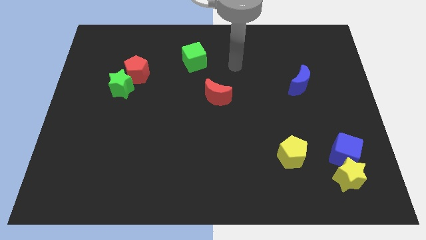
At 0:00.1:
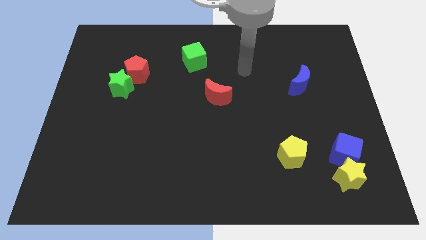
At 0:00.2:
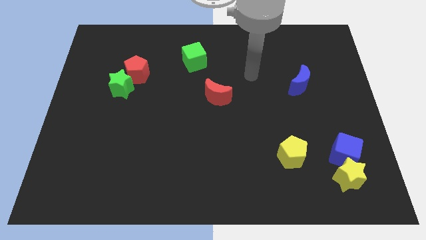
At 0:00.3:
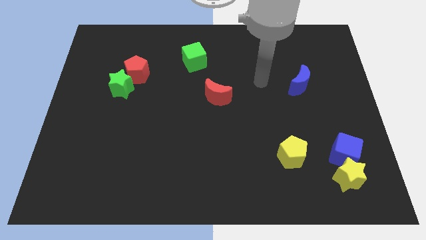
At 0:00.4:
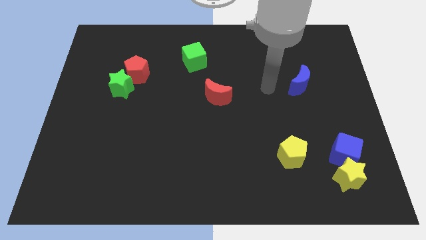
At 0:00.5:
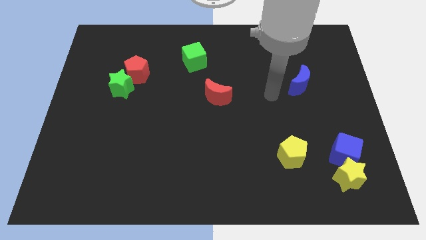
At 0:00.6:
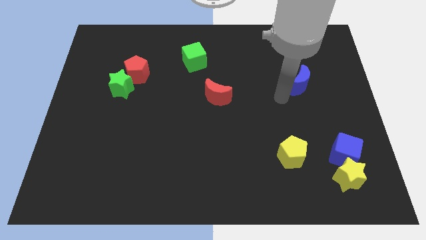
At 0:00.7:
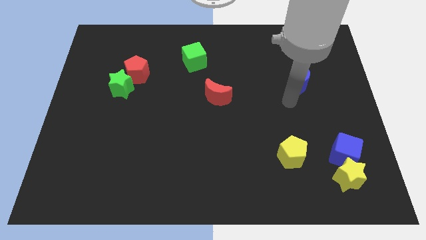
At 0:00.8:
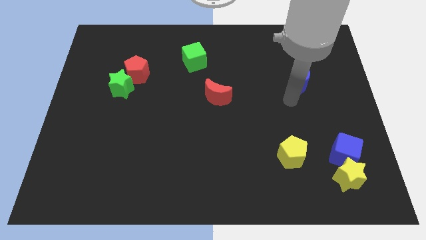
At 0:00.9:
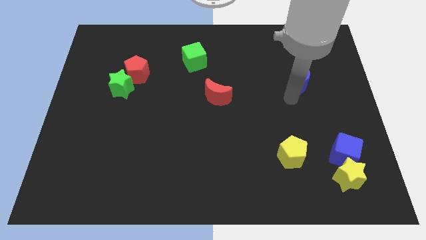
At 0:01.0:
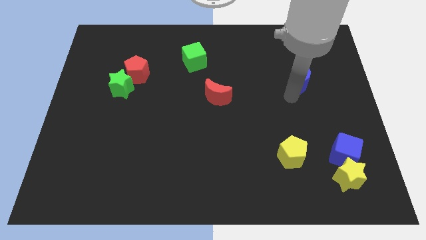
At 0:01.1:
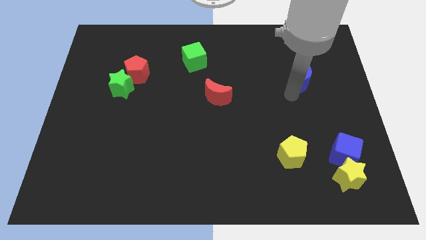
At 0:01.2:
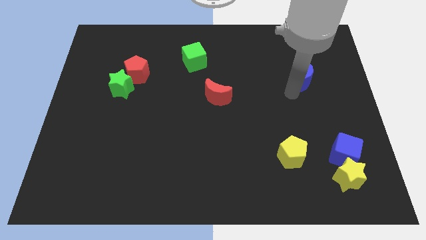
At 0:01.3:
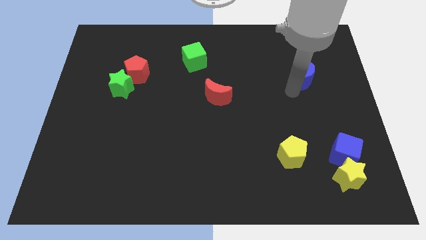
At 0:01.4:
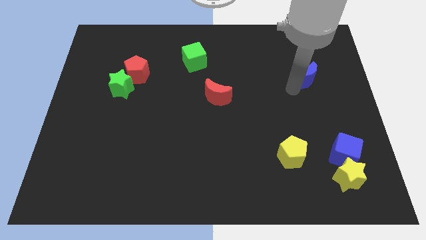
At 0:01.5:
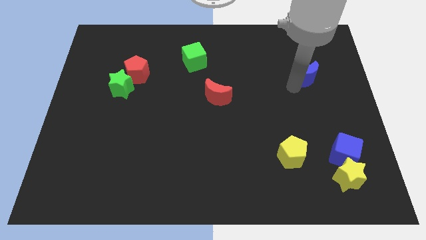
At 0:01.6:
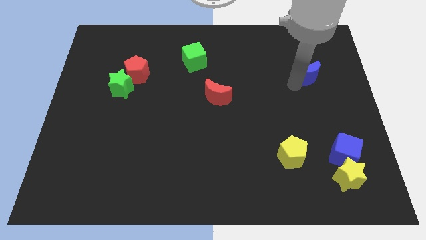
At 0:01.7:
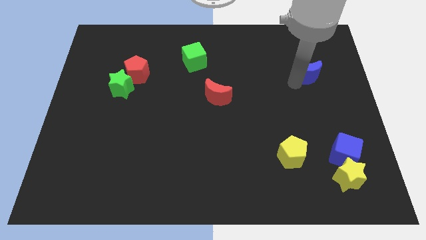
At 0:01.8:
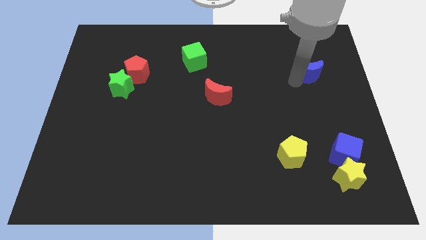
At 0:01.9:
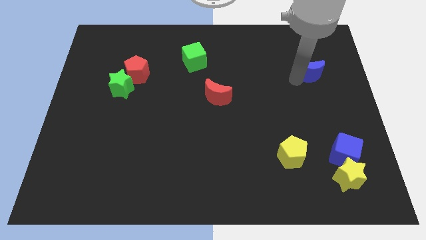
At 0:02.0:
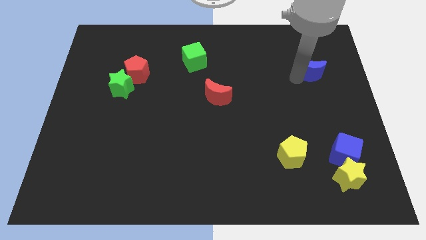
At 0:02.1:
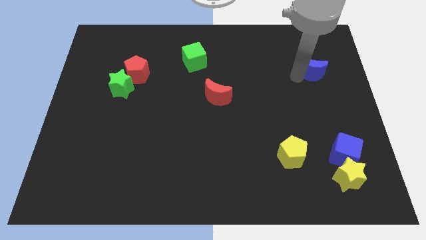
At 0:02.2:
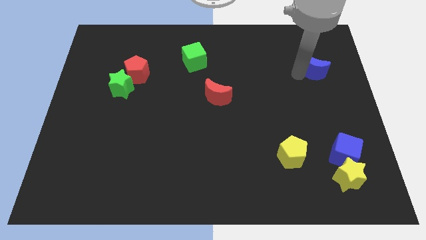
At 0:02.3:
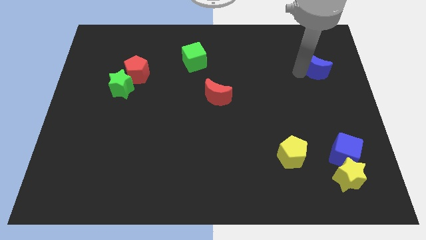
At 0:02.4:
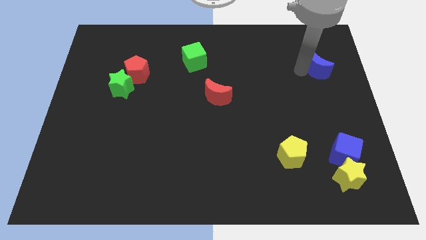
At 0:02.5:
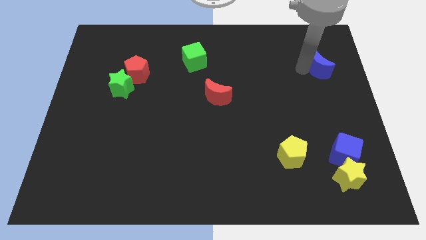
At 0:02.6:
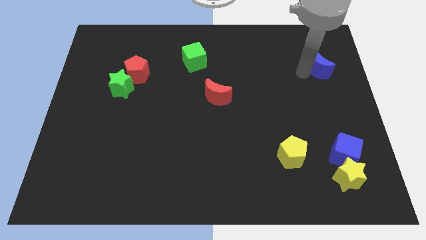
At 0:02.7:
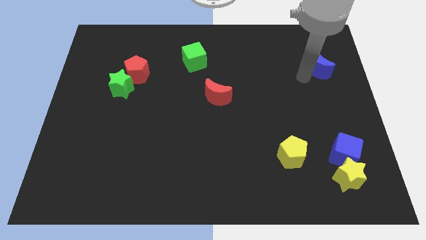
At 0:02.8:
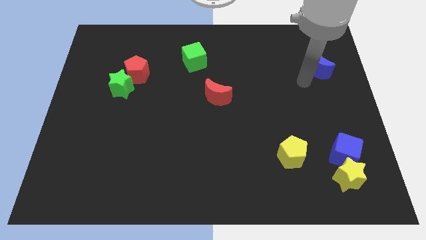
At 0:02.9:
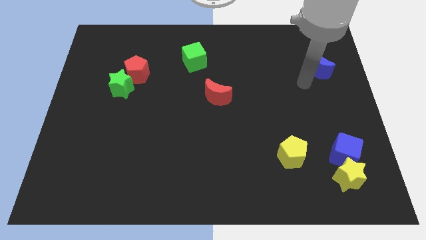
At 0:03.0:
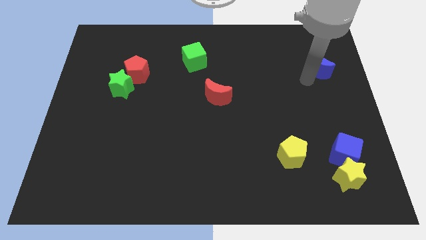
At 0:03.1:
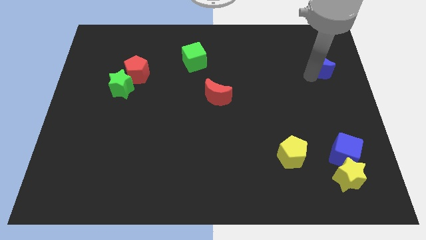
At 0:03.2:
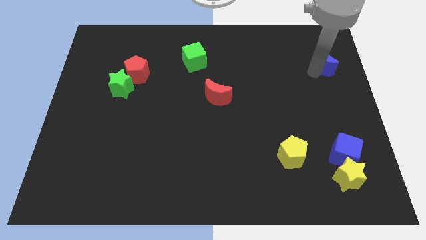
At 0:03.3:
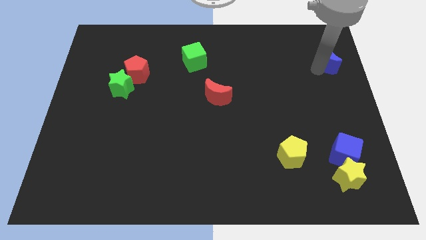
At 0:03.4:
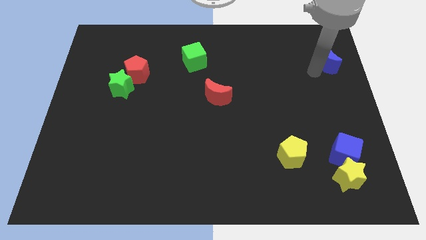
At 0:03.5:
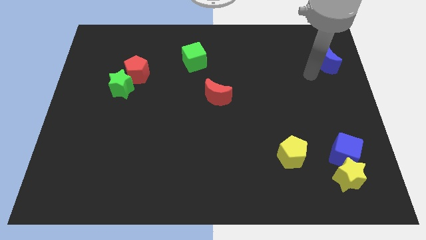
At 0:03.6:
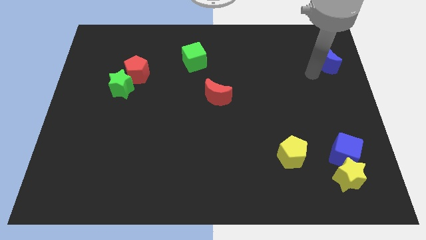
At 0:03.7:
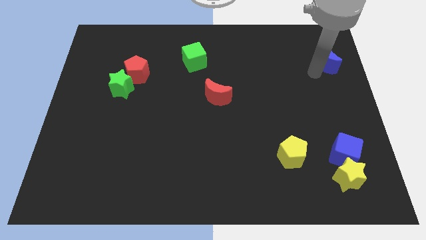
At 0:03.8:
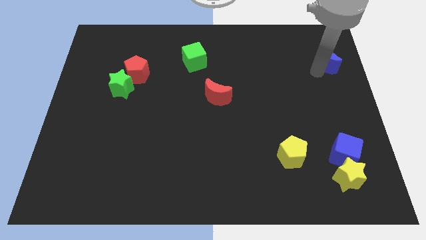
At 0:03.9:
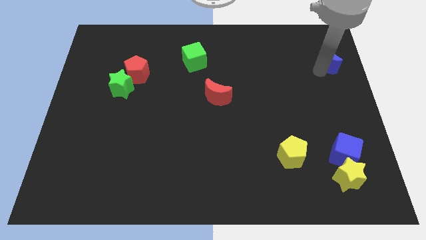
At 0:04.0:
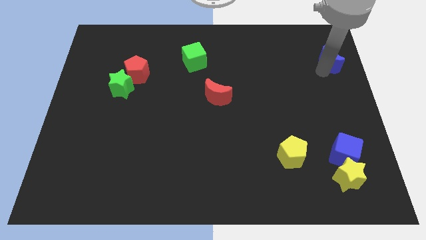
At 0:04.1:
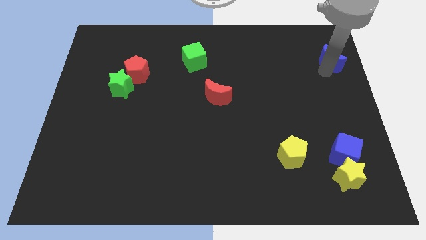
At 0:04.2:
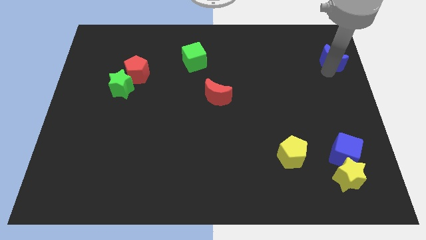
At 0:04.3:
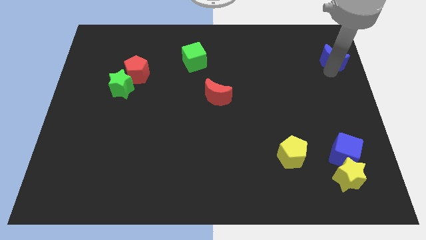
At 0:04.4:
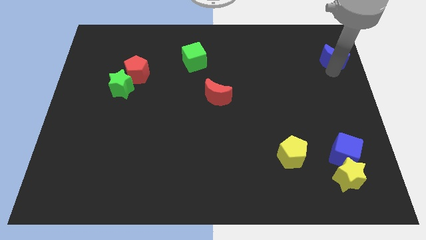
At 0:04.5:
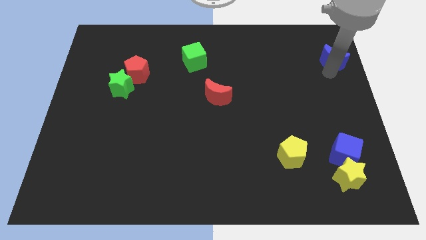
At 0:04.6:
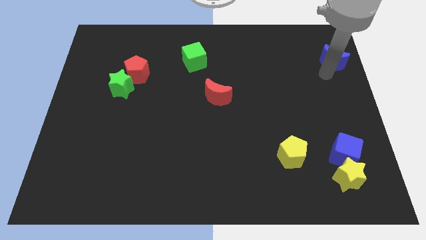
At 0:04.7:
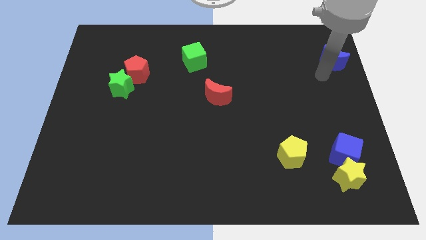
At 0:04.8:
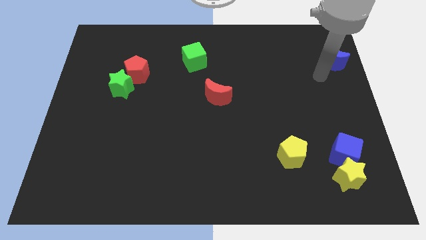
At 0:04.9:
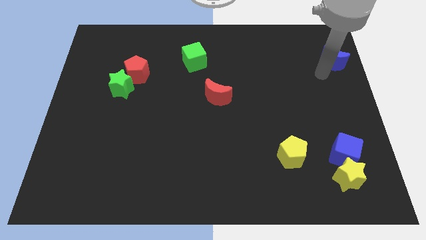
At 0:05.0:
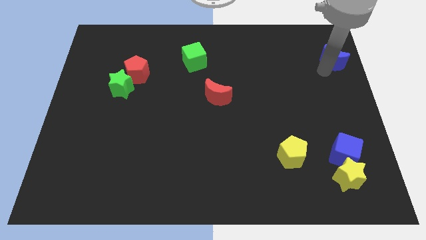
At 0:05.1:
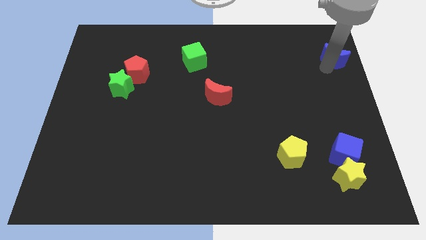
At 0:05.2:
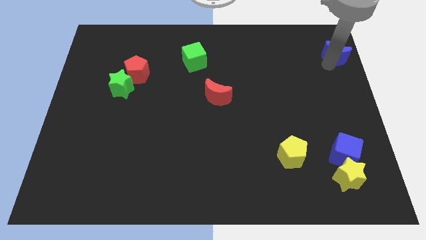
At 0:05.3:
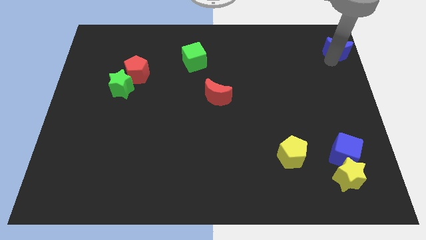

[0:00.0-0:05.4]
put the blue moon to the top right corner

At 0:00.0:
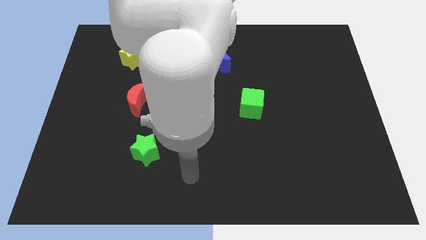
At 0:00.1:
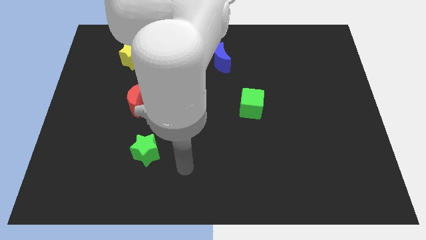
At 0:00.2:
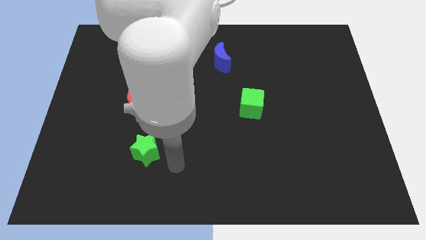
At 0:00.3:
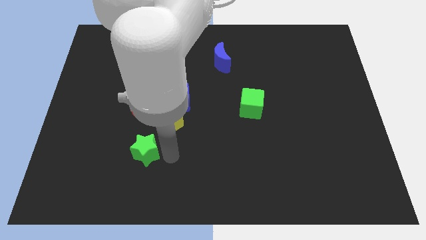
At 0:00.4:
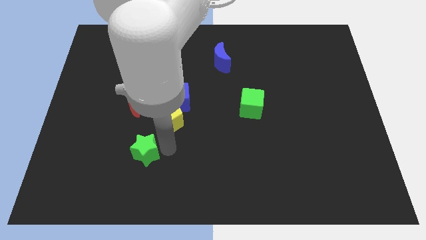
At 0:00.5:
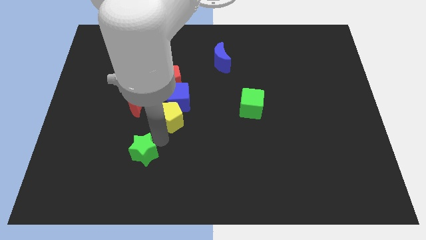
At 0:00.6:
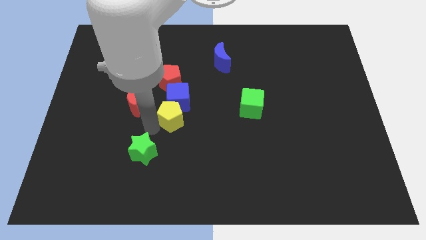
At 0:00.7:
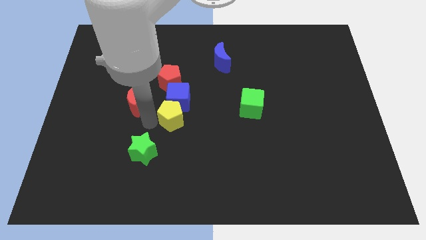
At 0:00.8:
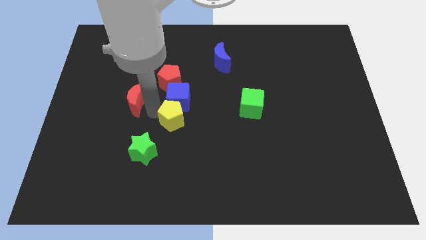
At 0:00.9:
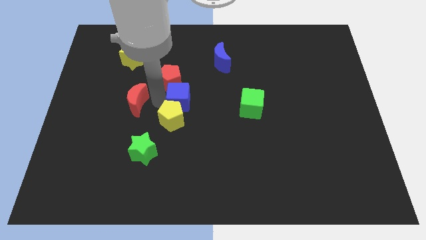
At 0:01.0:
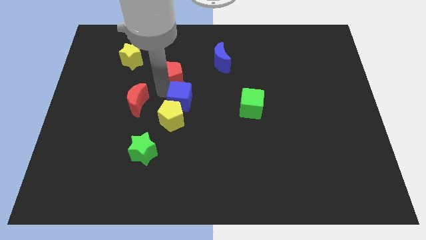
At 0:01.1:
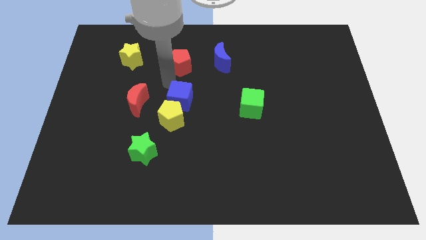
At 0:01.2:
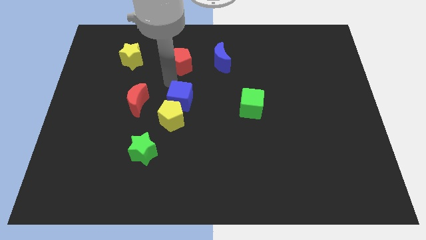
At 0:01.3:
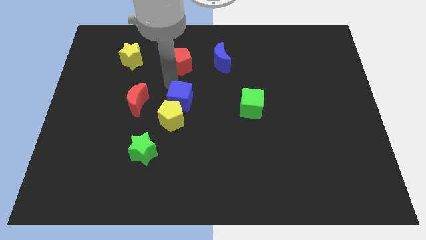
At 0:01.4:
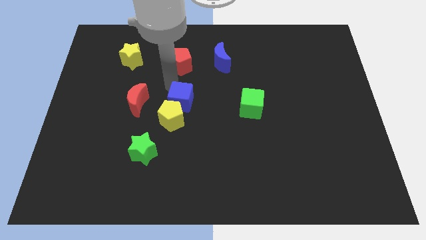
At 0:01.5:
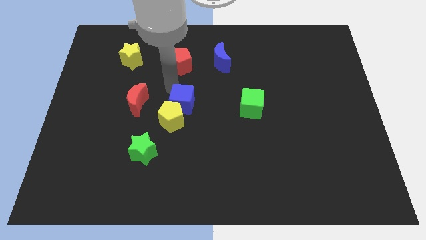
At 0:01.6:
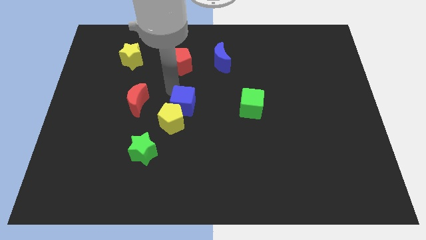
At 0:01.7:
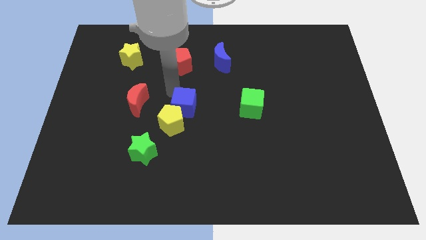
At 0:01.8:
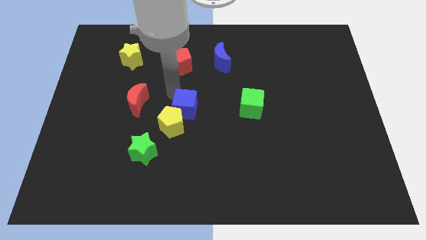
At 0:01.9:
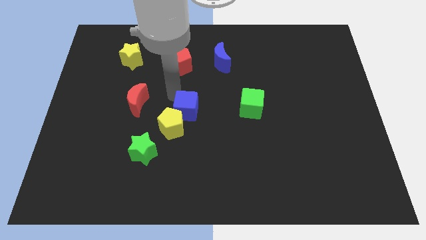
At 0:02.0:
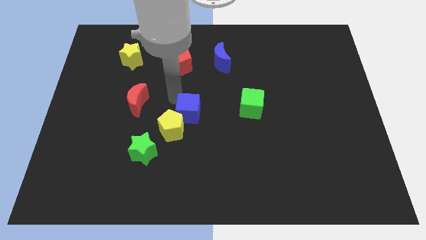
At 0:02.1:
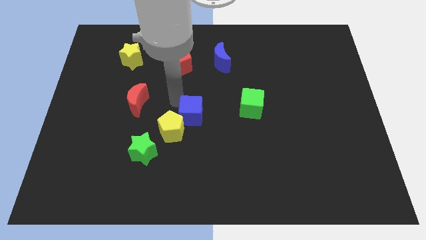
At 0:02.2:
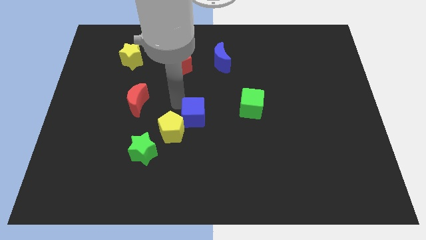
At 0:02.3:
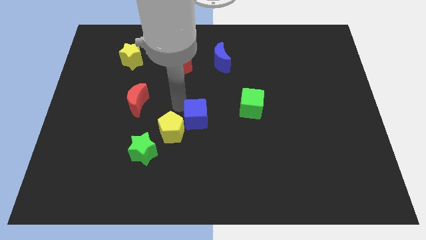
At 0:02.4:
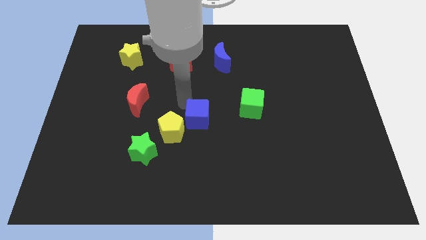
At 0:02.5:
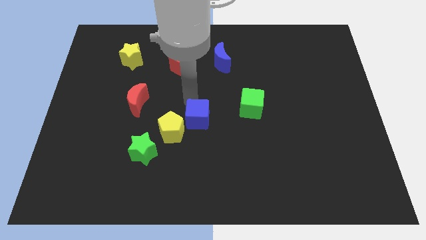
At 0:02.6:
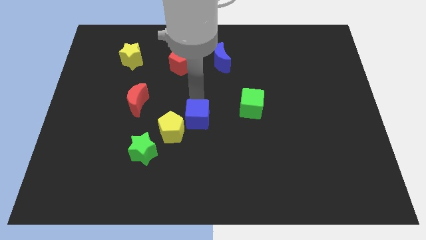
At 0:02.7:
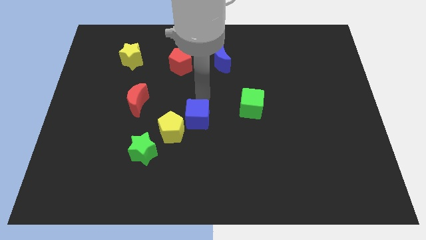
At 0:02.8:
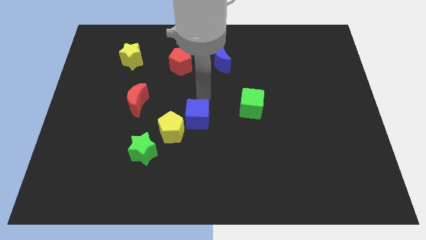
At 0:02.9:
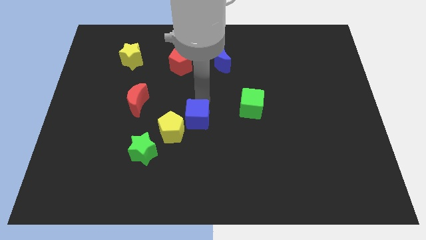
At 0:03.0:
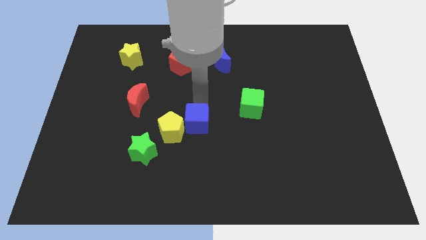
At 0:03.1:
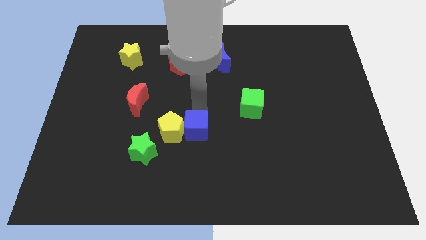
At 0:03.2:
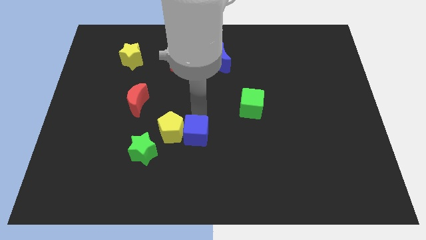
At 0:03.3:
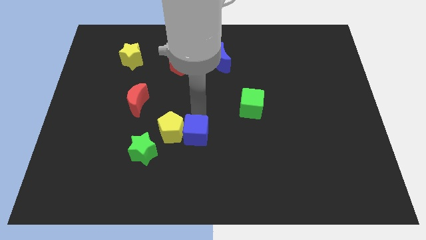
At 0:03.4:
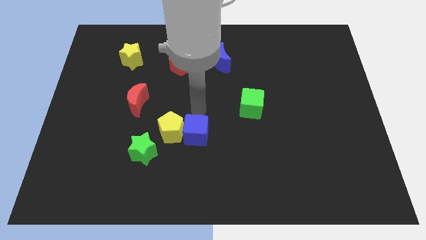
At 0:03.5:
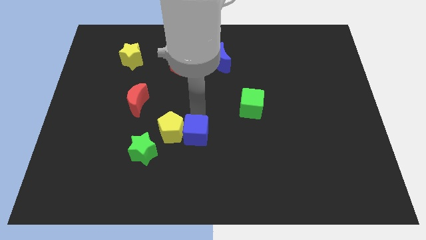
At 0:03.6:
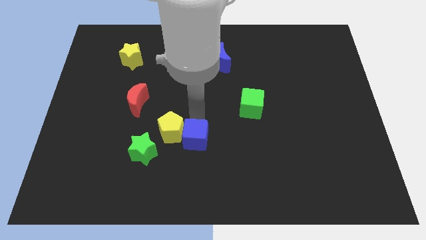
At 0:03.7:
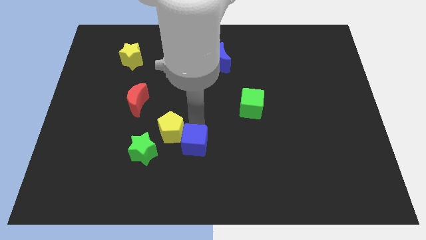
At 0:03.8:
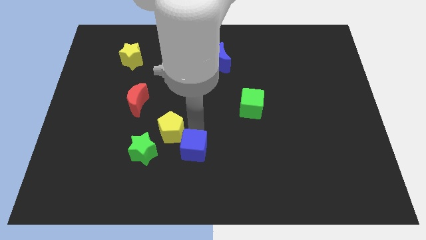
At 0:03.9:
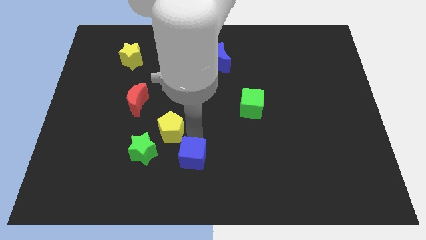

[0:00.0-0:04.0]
put the blue cube to the bottom
